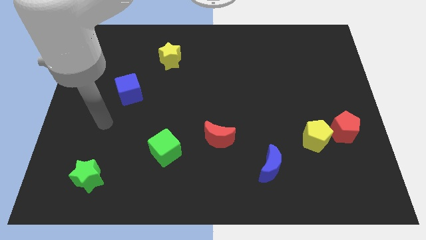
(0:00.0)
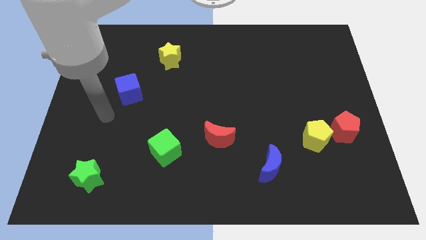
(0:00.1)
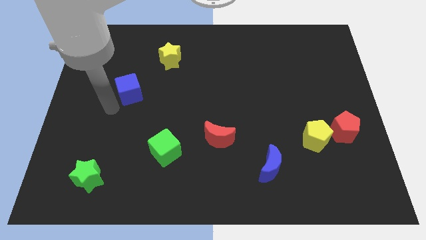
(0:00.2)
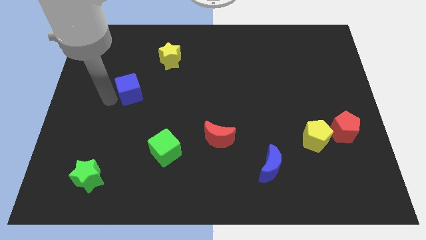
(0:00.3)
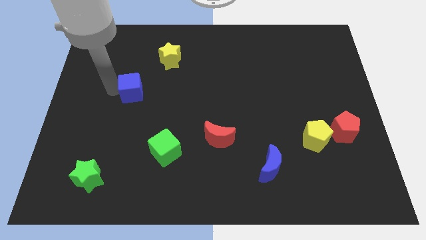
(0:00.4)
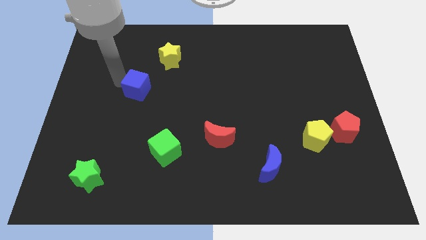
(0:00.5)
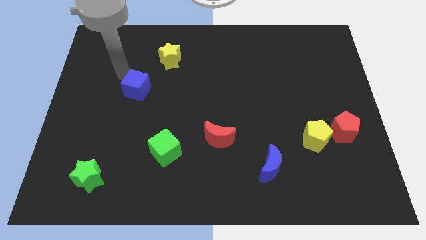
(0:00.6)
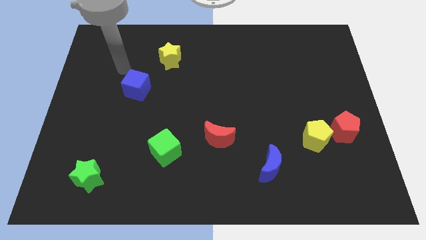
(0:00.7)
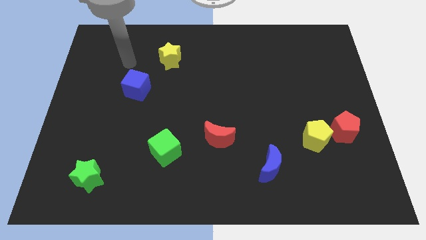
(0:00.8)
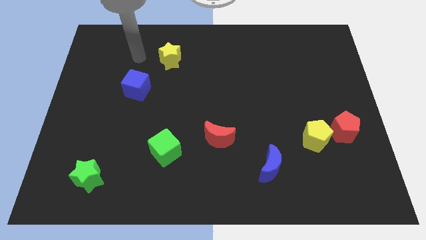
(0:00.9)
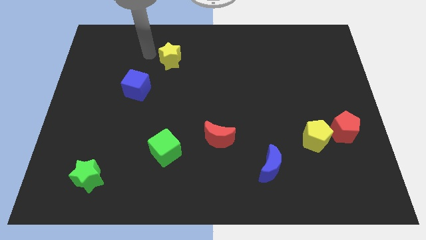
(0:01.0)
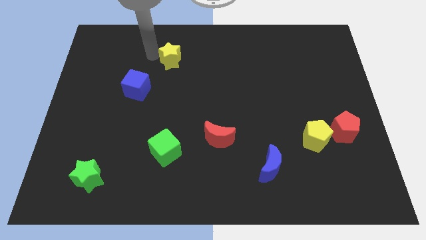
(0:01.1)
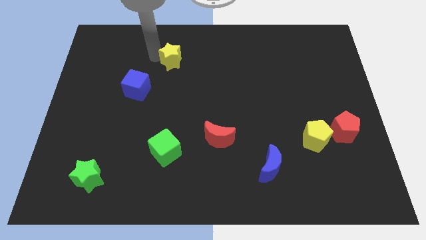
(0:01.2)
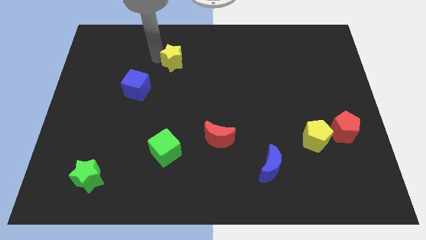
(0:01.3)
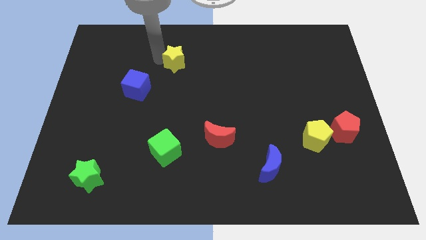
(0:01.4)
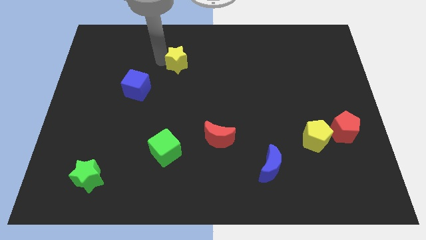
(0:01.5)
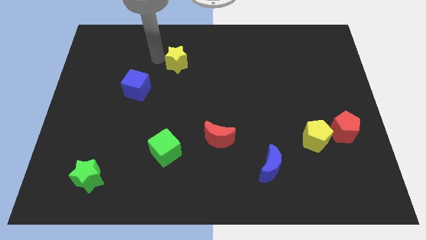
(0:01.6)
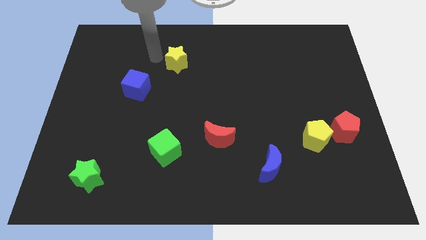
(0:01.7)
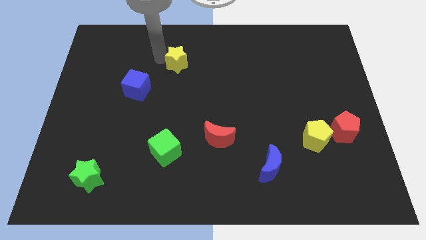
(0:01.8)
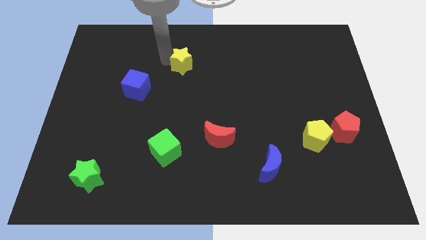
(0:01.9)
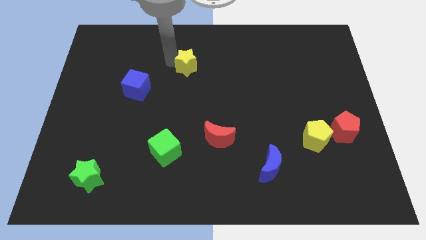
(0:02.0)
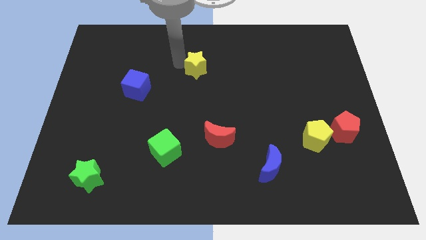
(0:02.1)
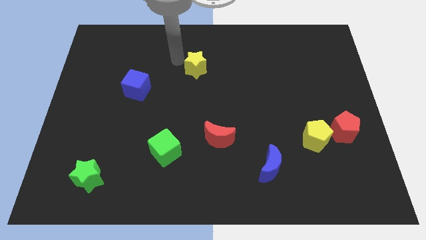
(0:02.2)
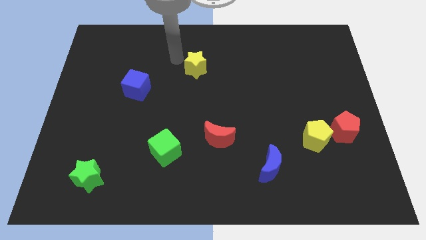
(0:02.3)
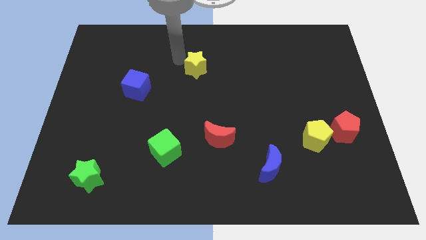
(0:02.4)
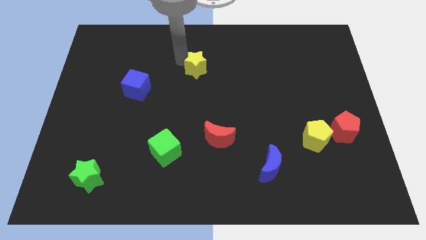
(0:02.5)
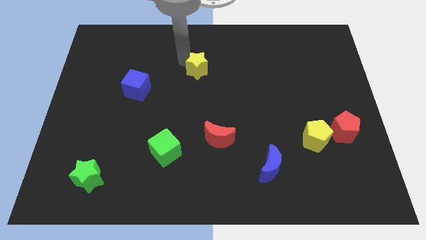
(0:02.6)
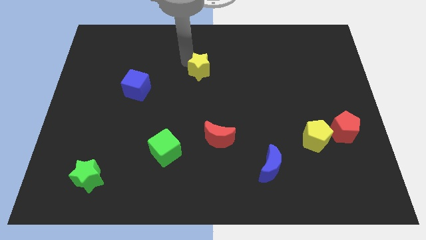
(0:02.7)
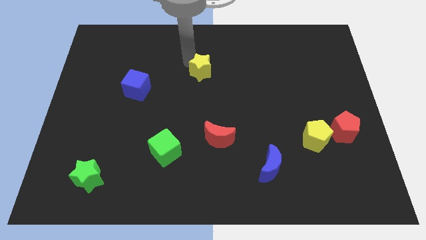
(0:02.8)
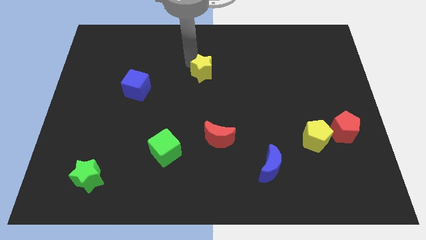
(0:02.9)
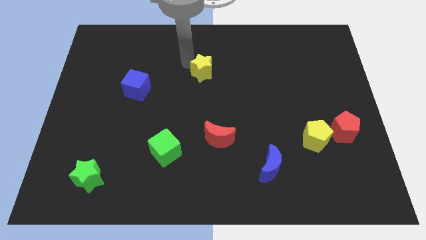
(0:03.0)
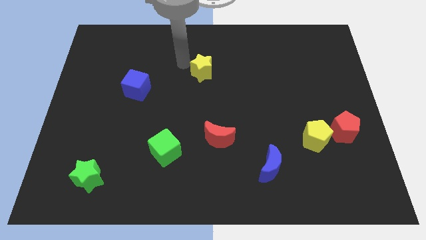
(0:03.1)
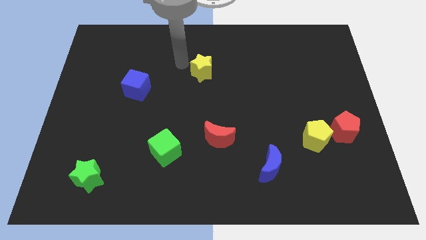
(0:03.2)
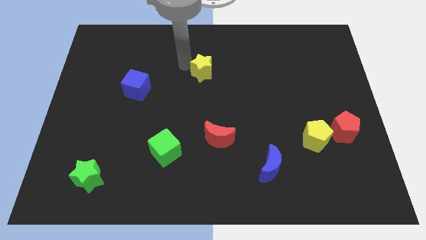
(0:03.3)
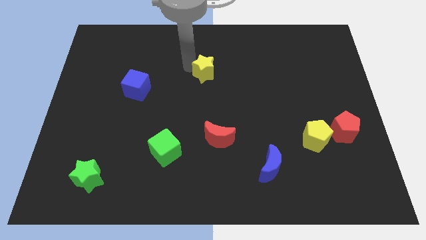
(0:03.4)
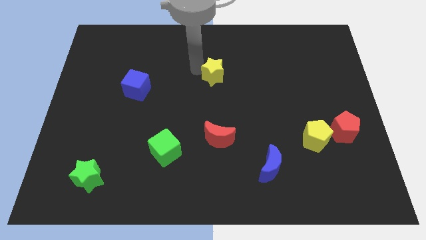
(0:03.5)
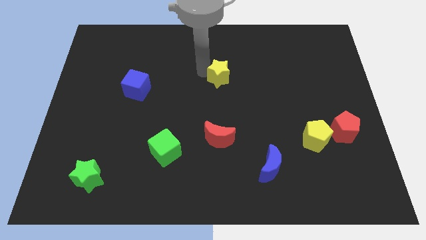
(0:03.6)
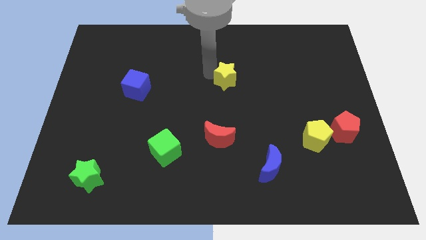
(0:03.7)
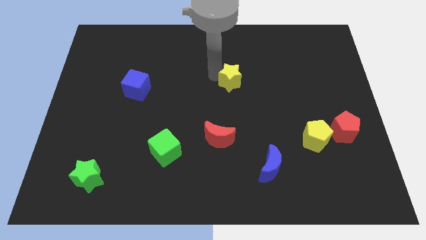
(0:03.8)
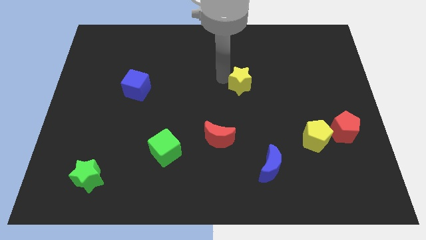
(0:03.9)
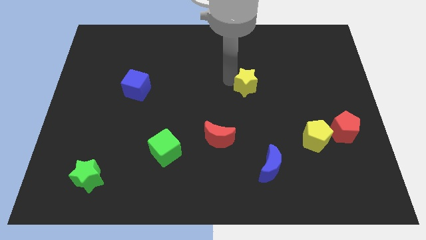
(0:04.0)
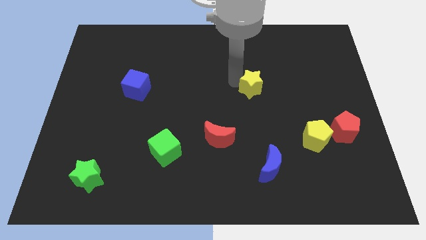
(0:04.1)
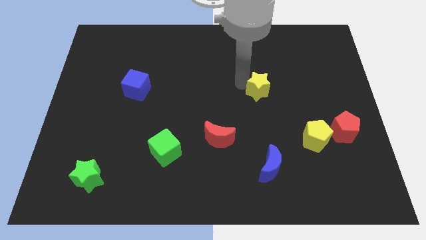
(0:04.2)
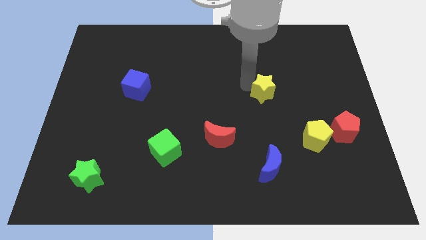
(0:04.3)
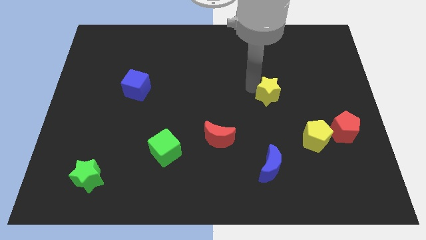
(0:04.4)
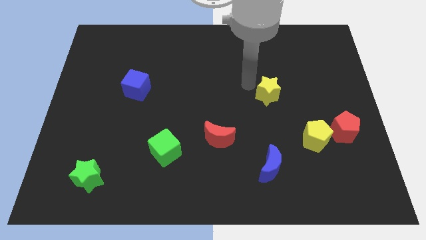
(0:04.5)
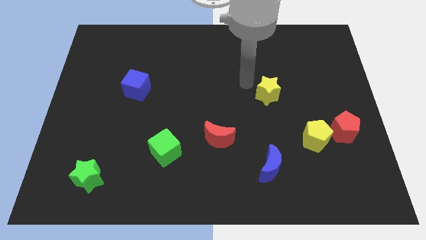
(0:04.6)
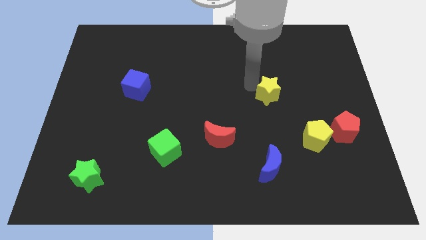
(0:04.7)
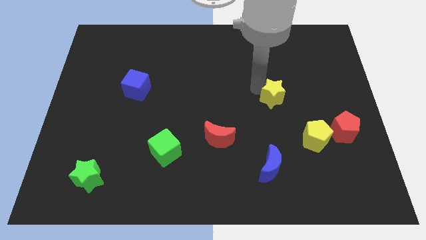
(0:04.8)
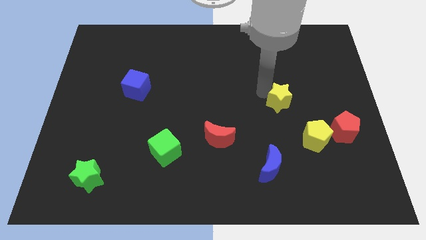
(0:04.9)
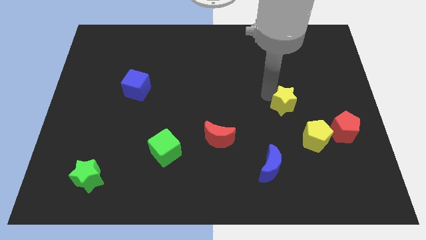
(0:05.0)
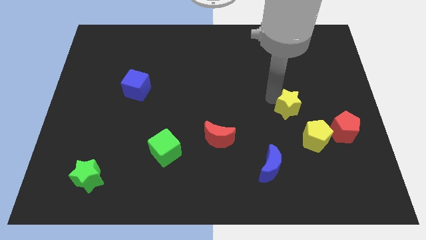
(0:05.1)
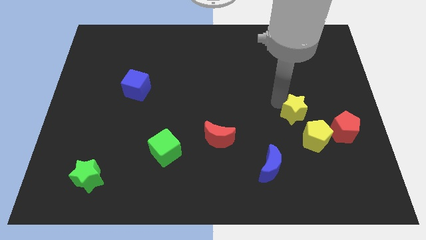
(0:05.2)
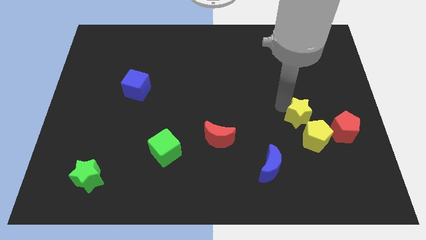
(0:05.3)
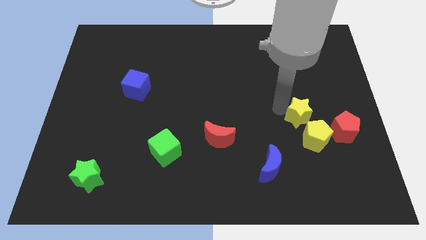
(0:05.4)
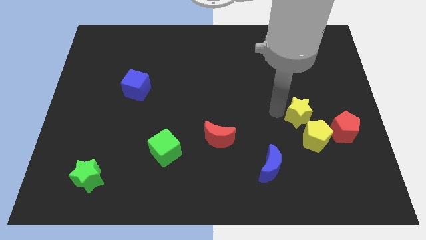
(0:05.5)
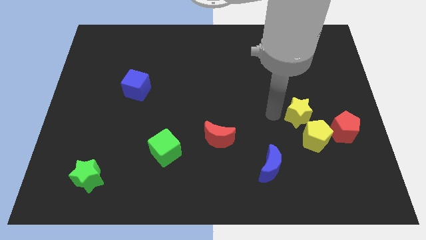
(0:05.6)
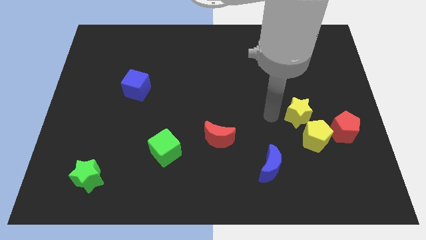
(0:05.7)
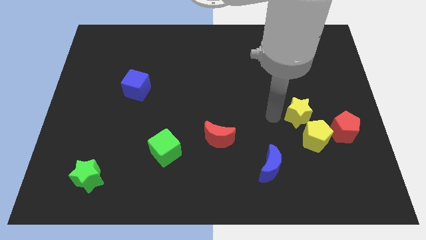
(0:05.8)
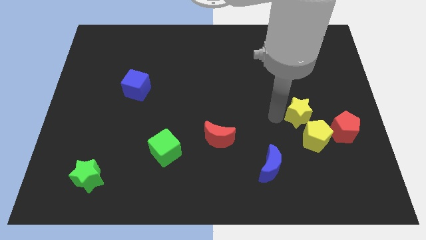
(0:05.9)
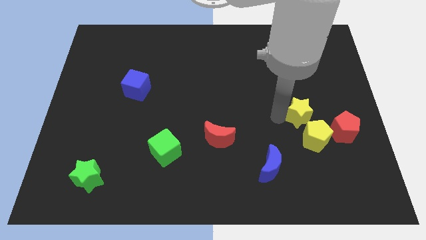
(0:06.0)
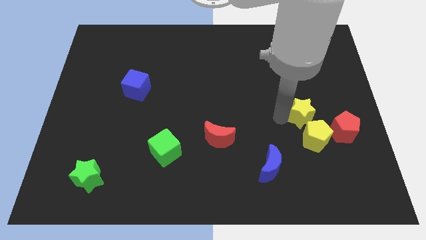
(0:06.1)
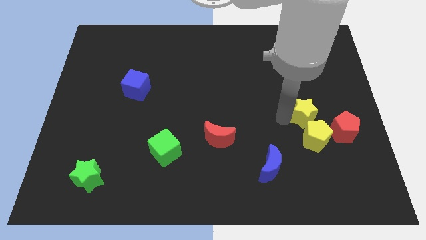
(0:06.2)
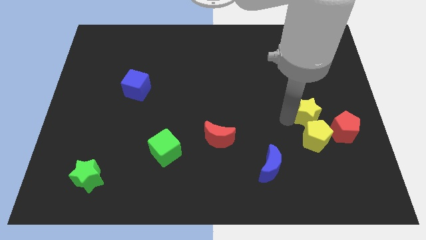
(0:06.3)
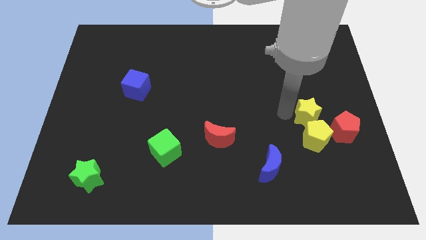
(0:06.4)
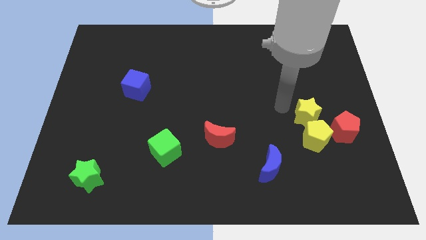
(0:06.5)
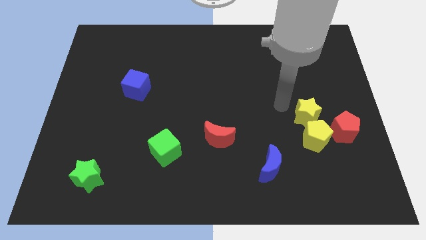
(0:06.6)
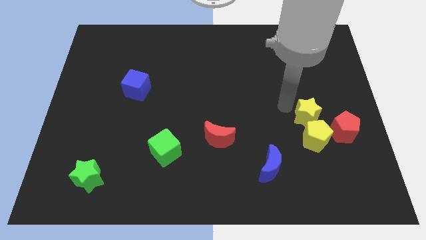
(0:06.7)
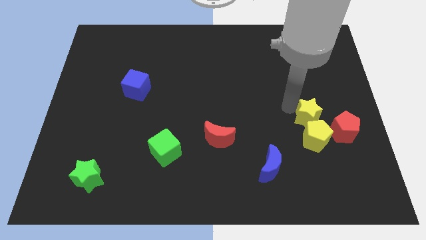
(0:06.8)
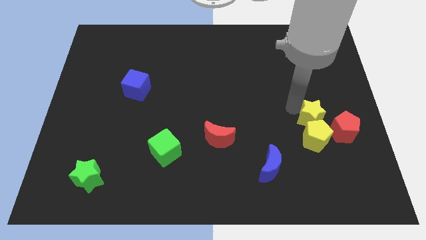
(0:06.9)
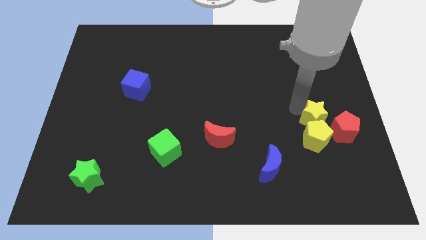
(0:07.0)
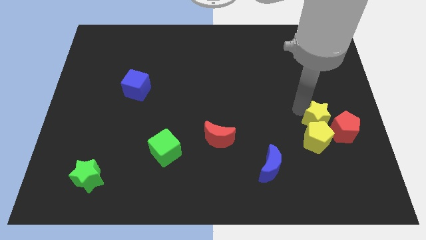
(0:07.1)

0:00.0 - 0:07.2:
move the yellow star next to the red pentagon
